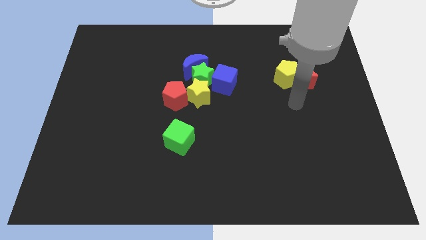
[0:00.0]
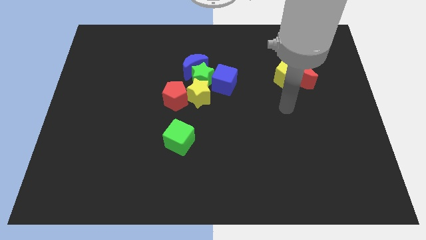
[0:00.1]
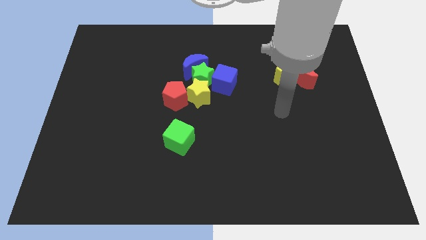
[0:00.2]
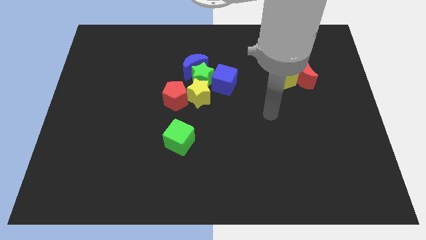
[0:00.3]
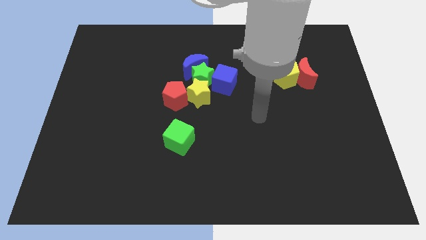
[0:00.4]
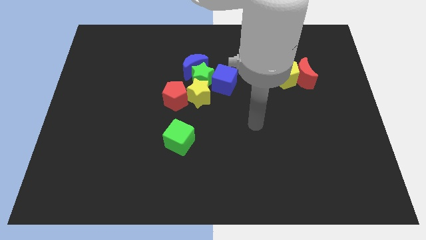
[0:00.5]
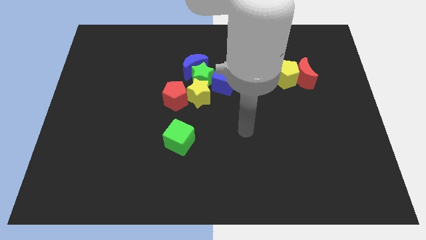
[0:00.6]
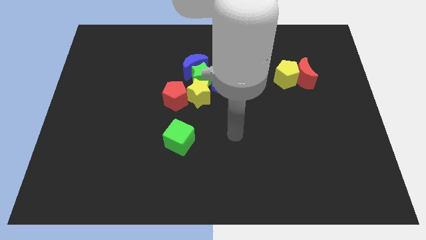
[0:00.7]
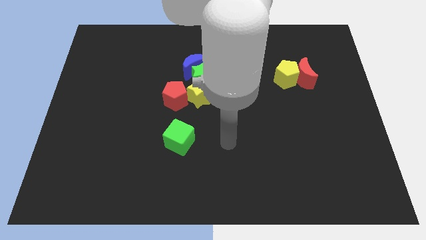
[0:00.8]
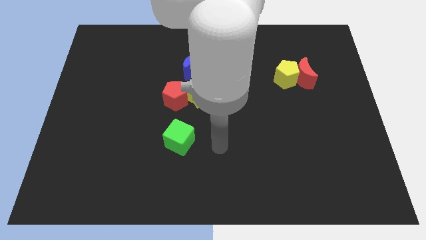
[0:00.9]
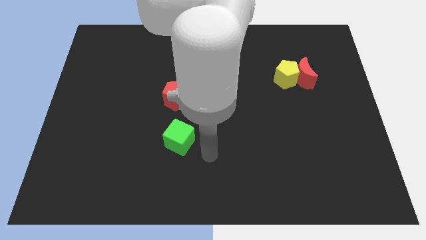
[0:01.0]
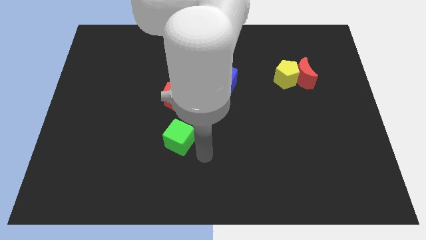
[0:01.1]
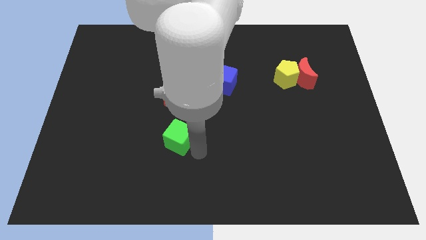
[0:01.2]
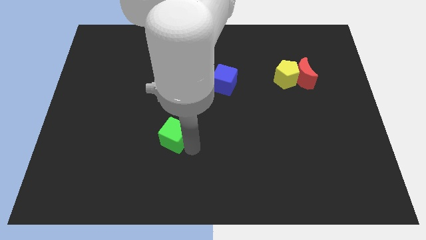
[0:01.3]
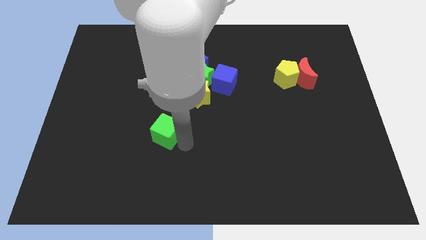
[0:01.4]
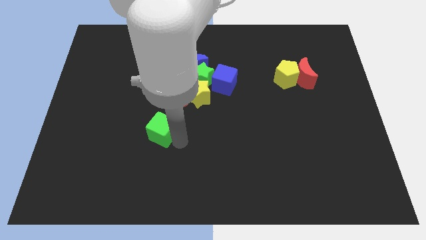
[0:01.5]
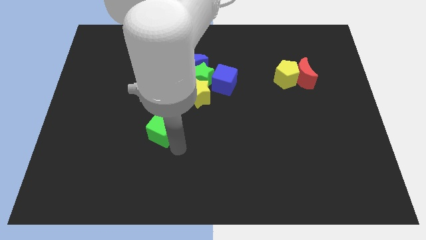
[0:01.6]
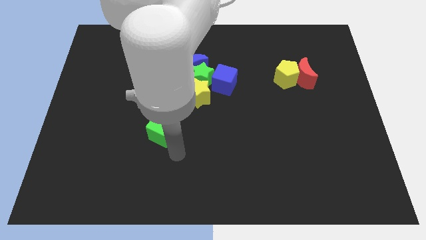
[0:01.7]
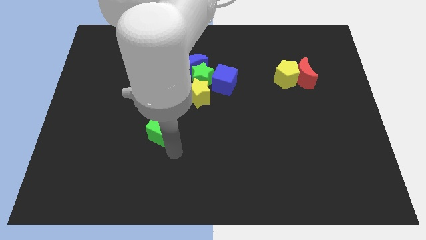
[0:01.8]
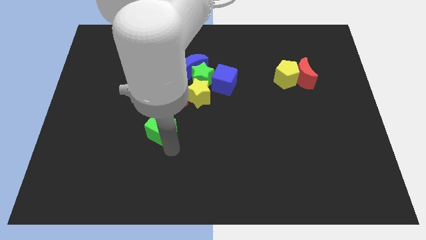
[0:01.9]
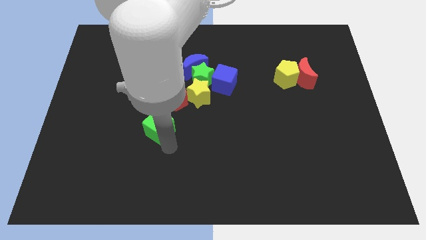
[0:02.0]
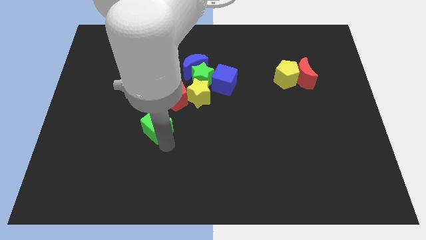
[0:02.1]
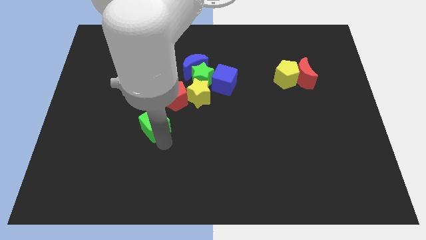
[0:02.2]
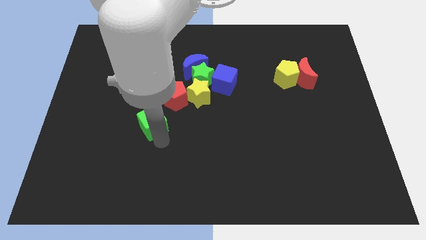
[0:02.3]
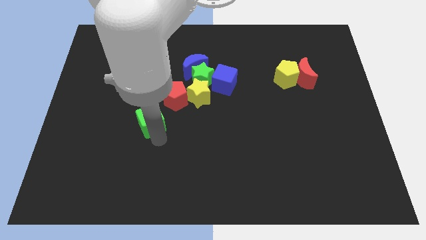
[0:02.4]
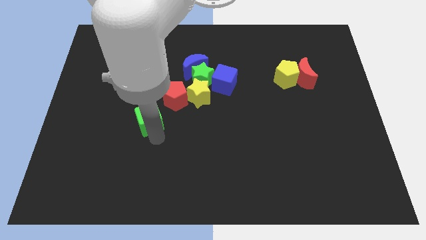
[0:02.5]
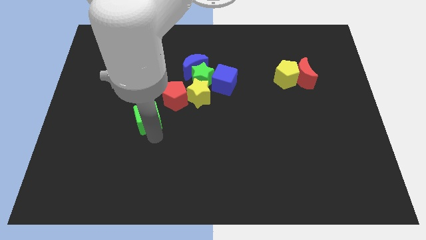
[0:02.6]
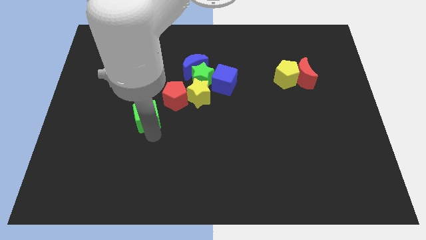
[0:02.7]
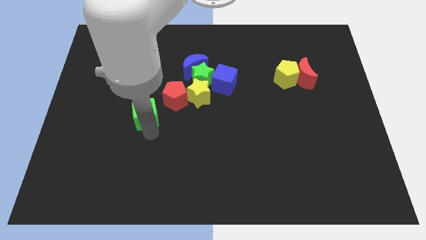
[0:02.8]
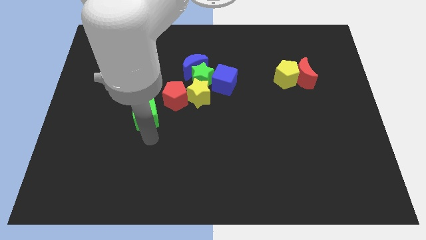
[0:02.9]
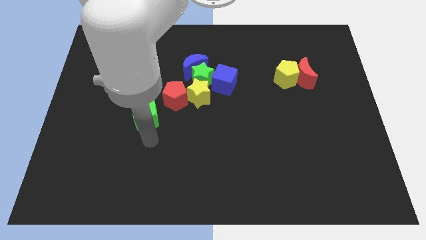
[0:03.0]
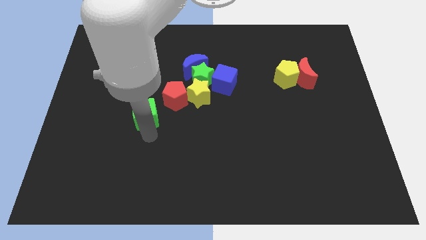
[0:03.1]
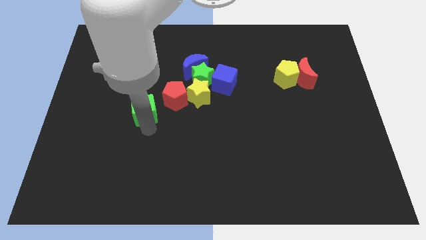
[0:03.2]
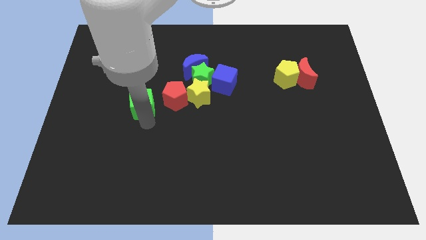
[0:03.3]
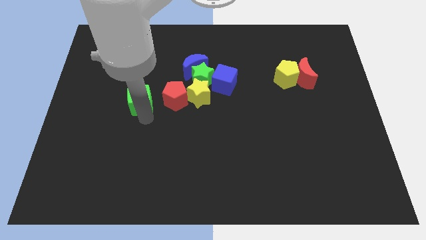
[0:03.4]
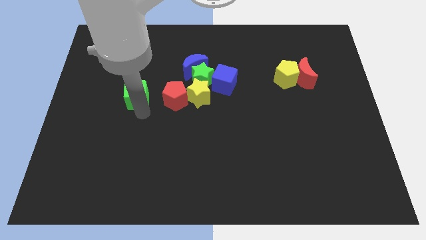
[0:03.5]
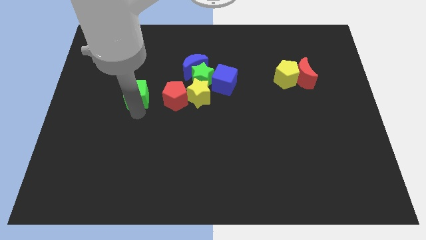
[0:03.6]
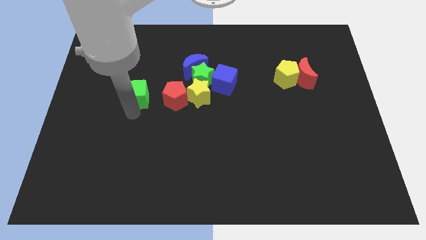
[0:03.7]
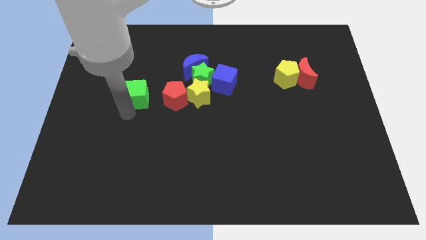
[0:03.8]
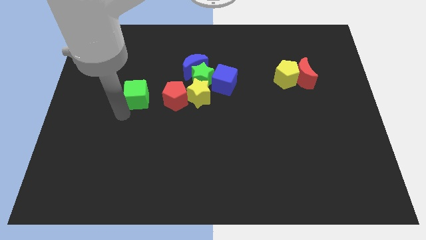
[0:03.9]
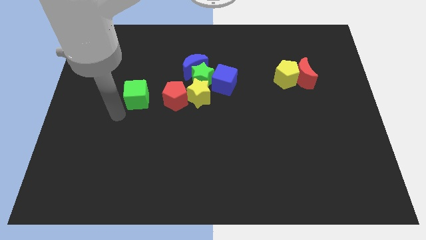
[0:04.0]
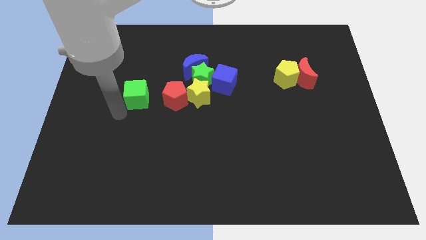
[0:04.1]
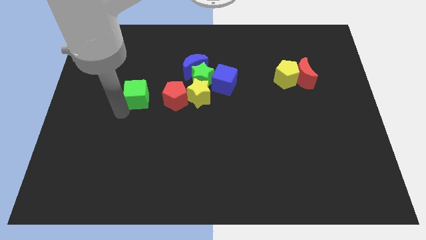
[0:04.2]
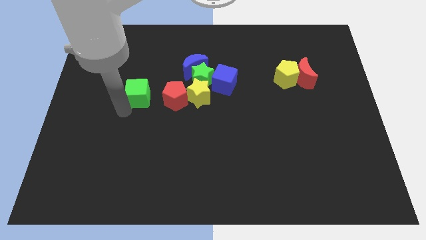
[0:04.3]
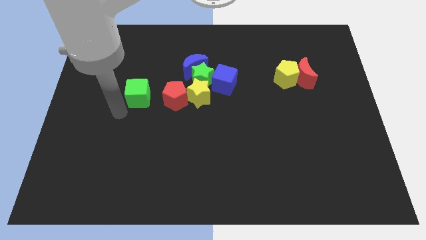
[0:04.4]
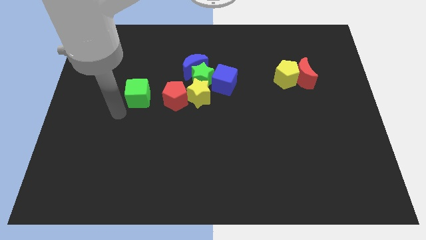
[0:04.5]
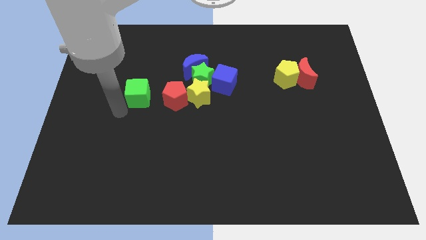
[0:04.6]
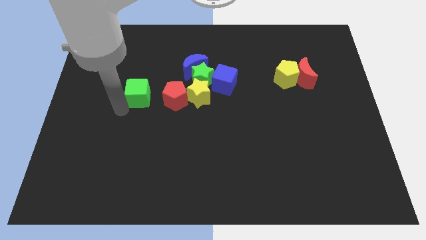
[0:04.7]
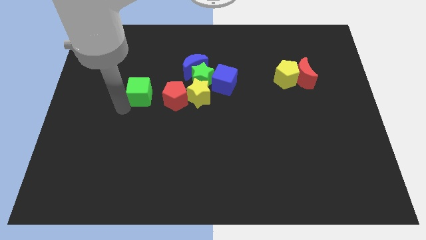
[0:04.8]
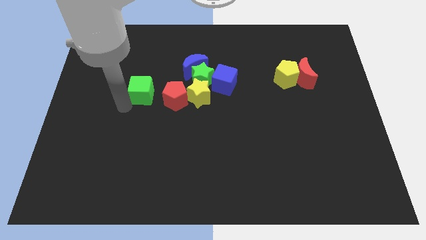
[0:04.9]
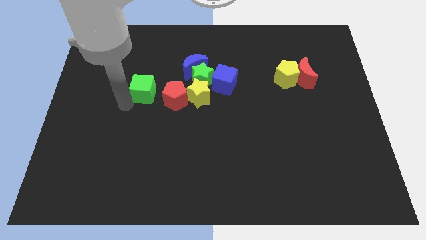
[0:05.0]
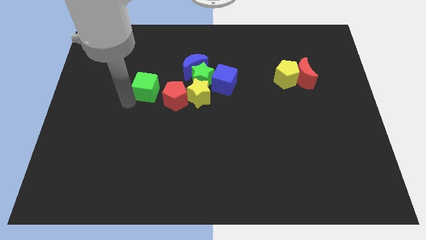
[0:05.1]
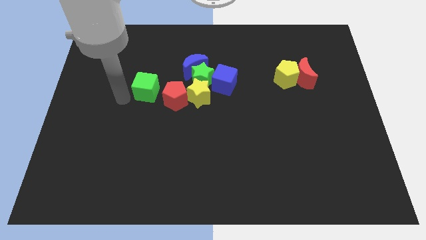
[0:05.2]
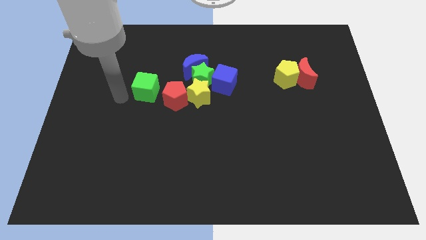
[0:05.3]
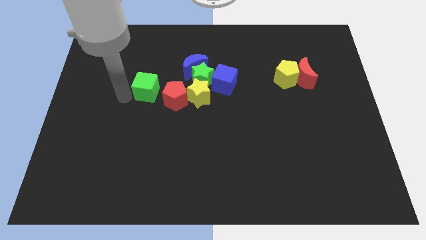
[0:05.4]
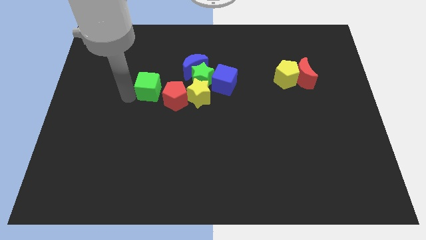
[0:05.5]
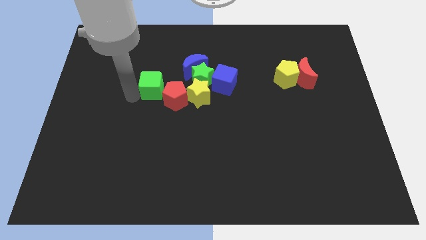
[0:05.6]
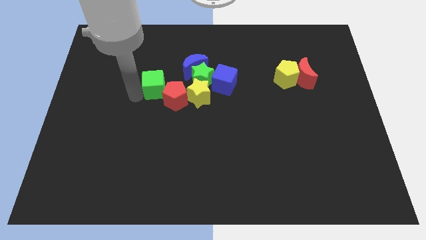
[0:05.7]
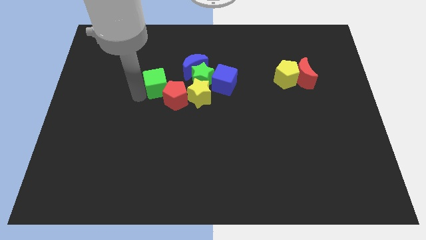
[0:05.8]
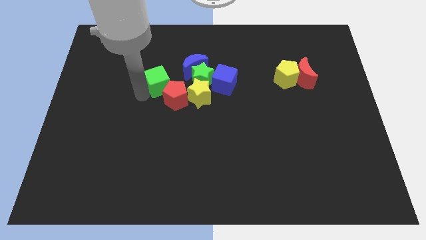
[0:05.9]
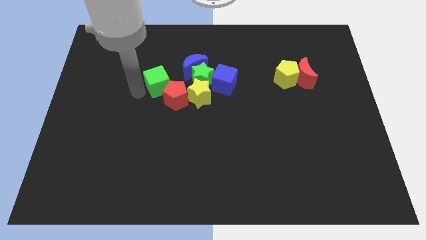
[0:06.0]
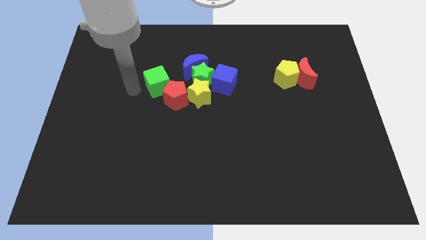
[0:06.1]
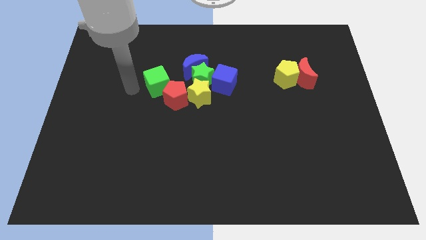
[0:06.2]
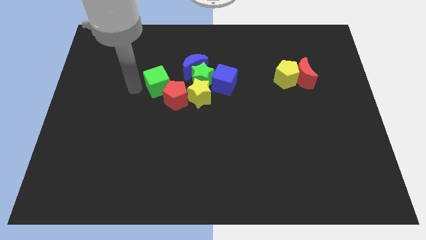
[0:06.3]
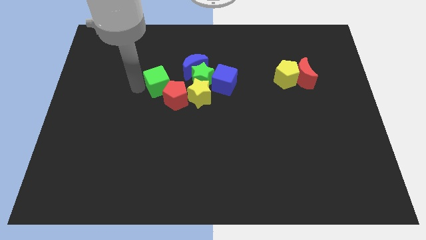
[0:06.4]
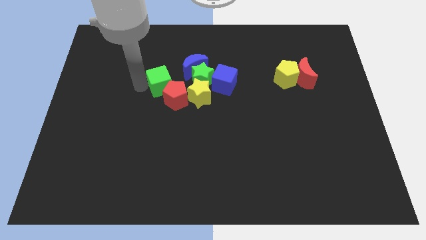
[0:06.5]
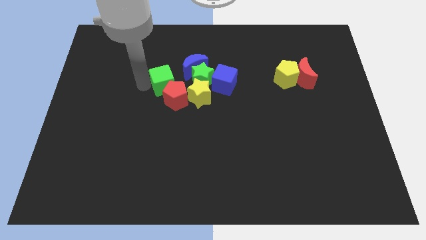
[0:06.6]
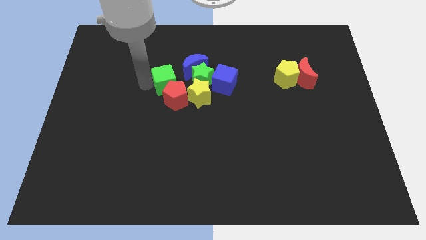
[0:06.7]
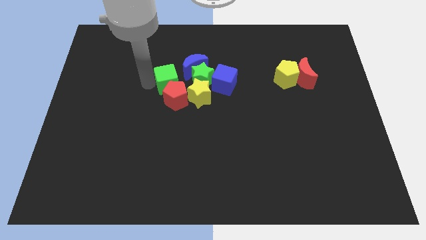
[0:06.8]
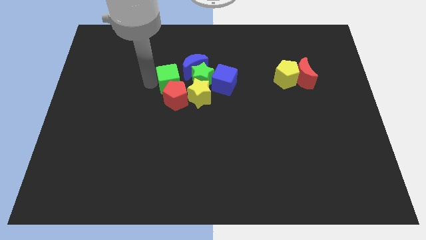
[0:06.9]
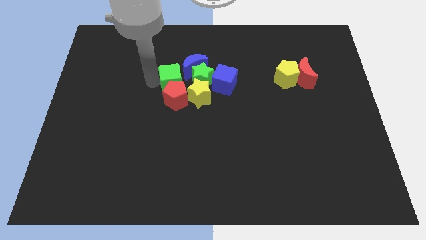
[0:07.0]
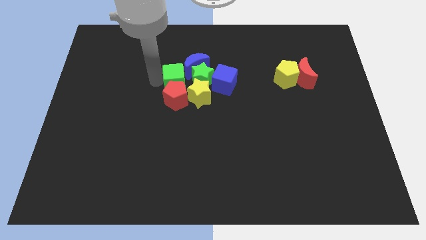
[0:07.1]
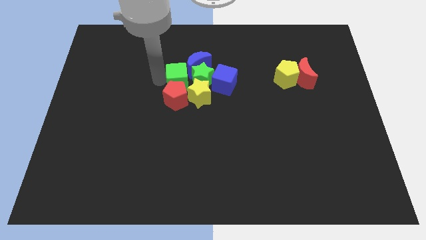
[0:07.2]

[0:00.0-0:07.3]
slide the green cube next to the green star

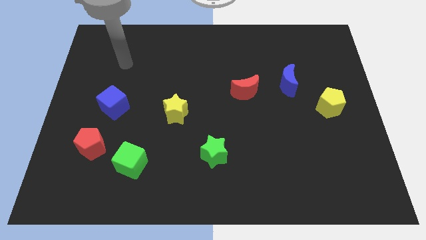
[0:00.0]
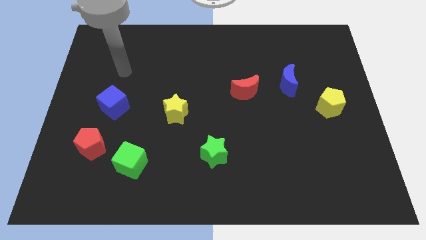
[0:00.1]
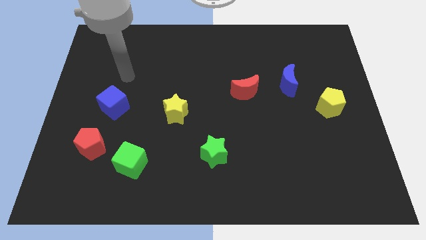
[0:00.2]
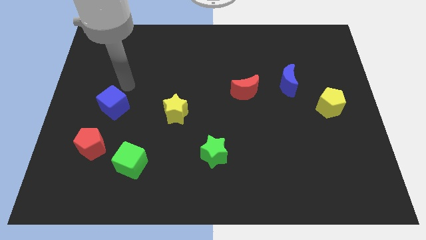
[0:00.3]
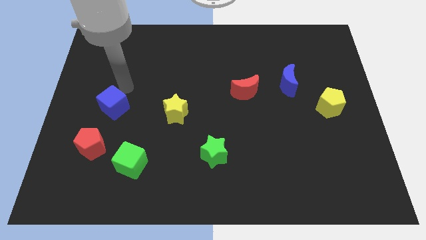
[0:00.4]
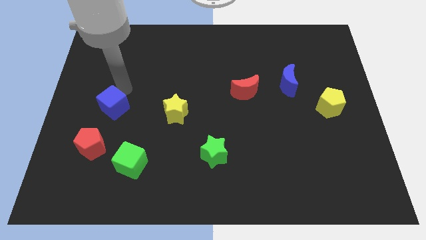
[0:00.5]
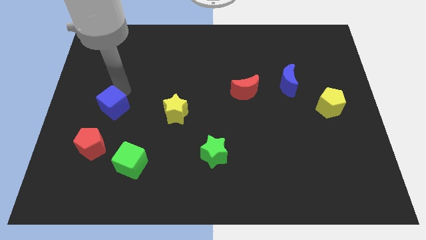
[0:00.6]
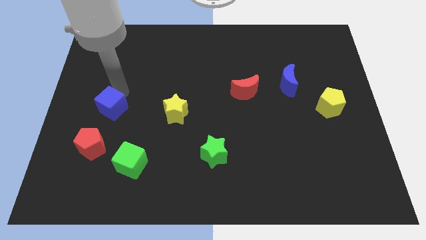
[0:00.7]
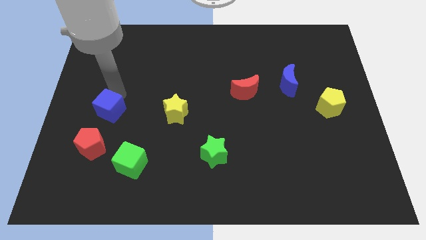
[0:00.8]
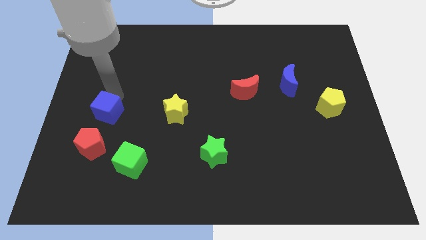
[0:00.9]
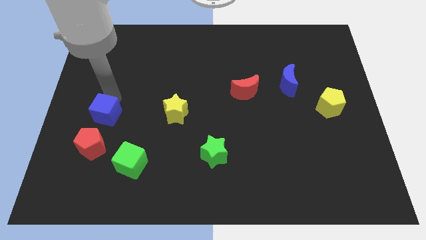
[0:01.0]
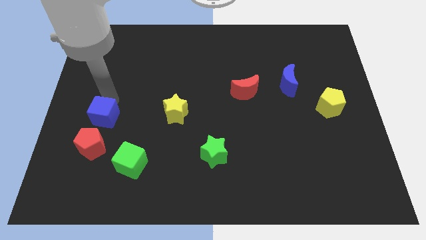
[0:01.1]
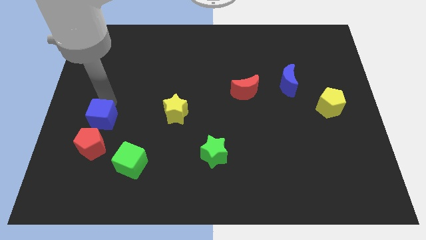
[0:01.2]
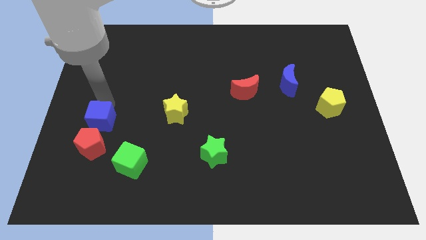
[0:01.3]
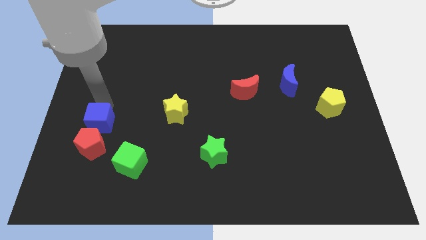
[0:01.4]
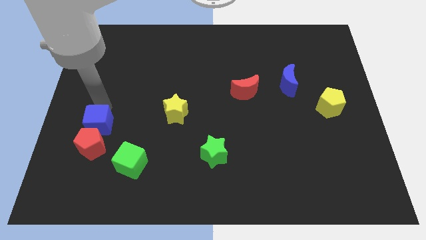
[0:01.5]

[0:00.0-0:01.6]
push the blue cube to the red pentagon
